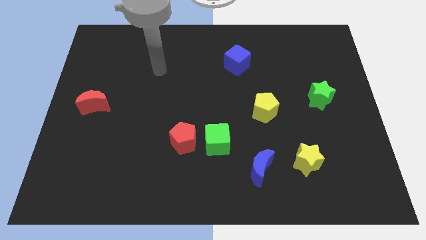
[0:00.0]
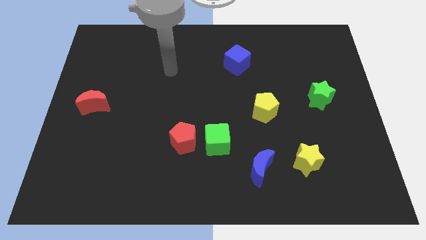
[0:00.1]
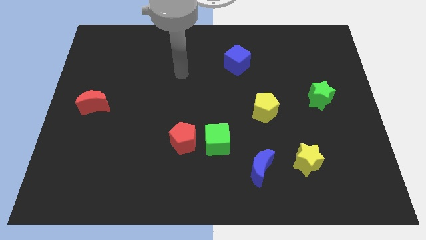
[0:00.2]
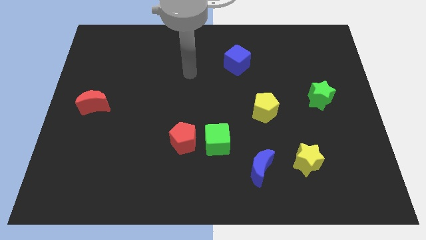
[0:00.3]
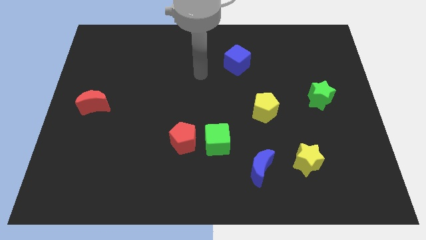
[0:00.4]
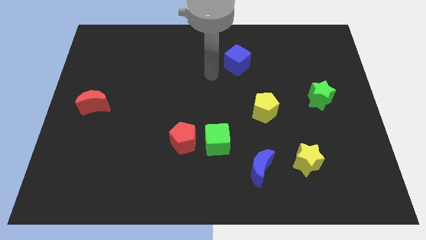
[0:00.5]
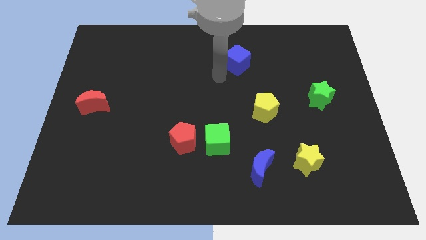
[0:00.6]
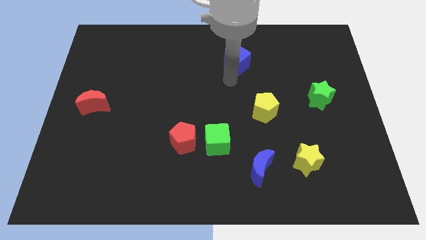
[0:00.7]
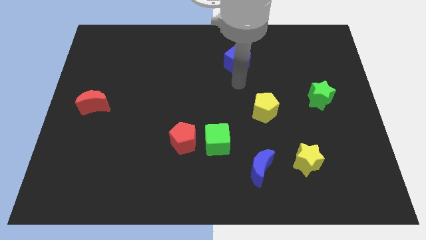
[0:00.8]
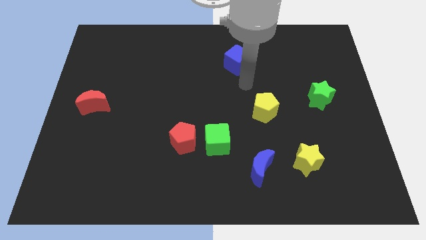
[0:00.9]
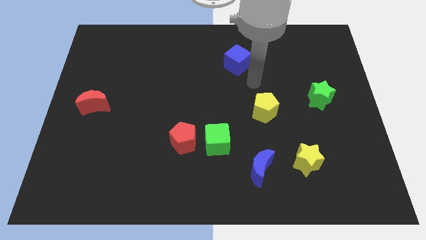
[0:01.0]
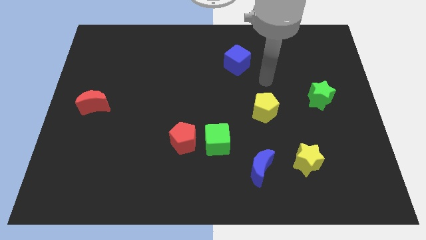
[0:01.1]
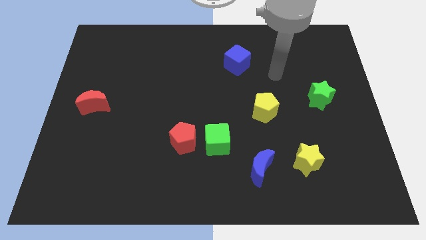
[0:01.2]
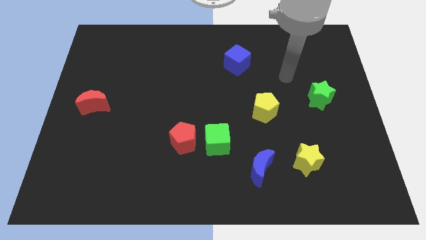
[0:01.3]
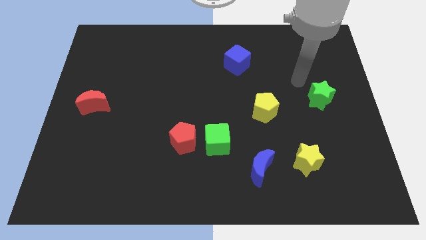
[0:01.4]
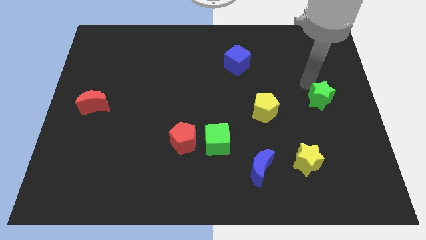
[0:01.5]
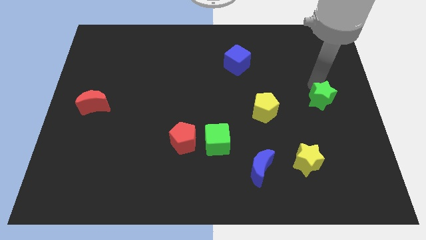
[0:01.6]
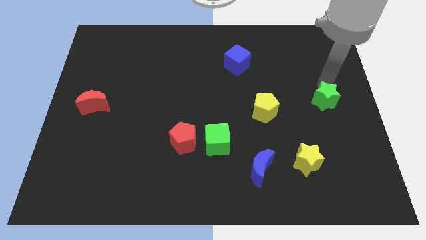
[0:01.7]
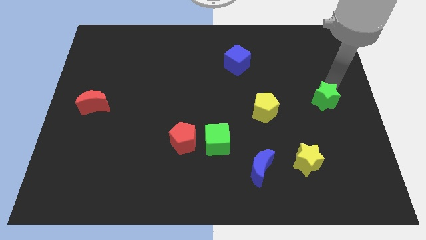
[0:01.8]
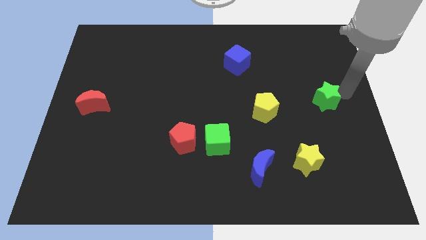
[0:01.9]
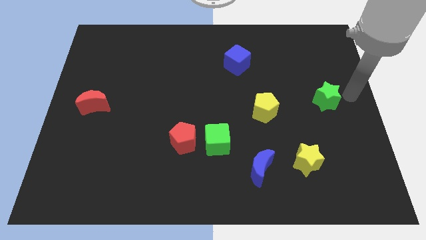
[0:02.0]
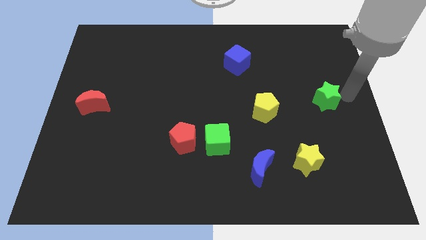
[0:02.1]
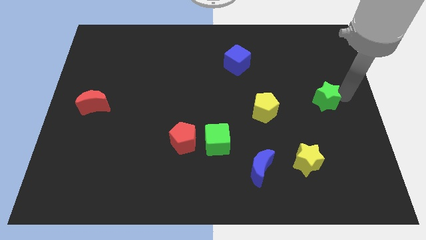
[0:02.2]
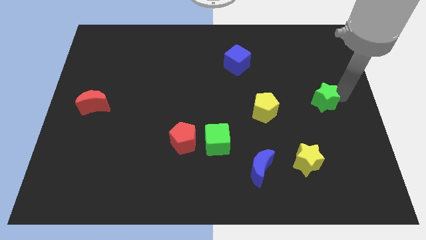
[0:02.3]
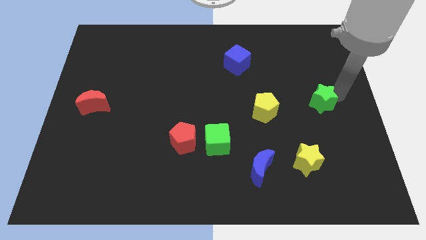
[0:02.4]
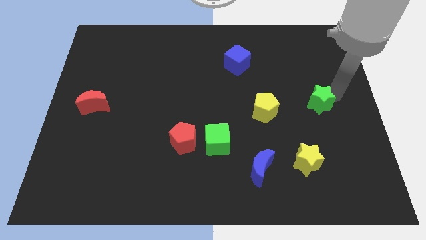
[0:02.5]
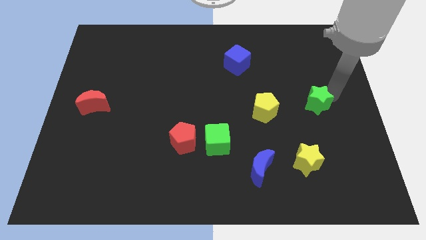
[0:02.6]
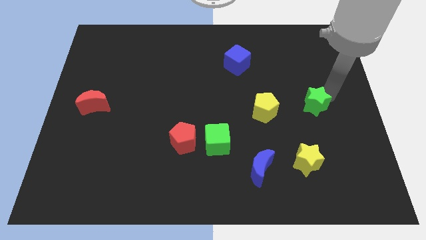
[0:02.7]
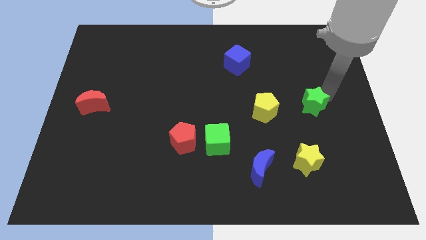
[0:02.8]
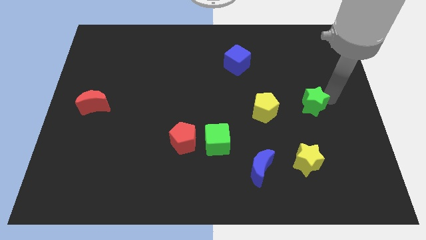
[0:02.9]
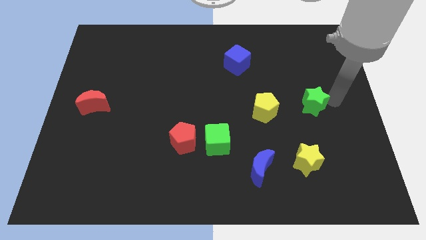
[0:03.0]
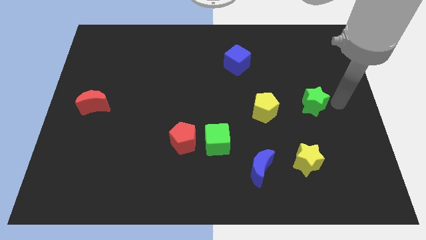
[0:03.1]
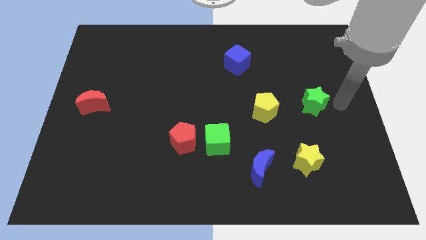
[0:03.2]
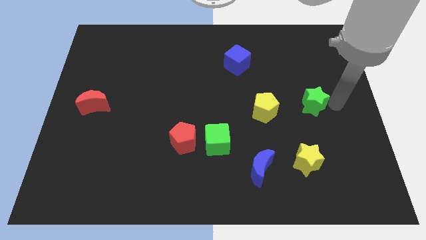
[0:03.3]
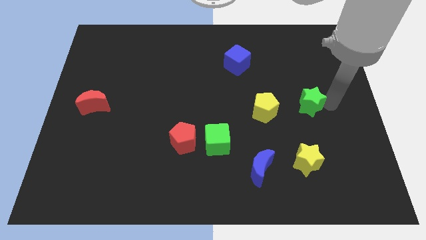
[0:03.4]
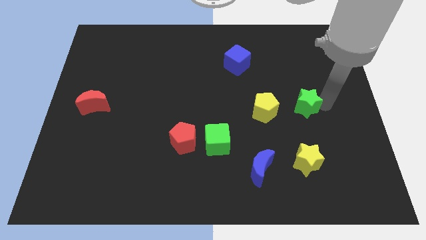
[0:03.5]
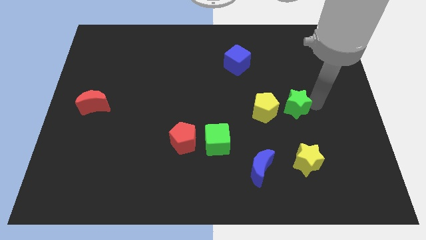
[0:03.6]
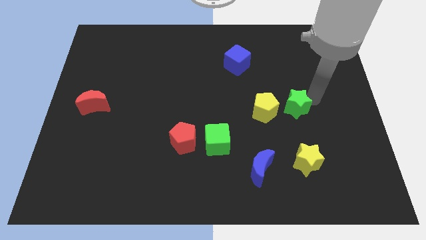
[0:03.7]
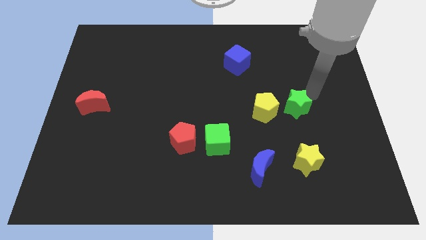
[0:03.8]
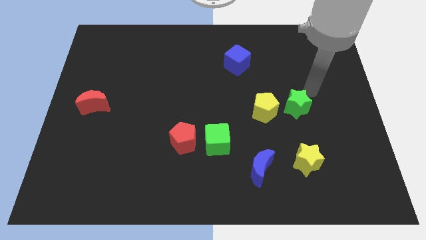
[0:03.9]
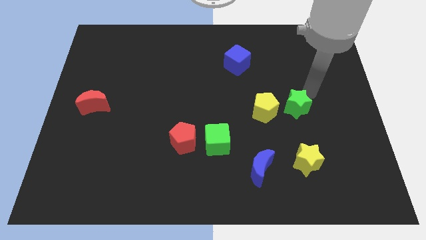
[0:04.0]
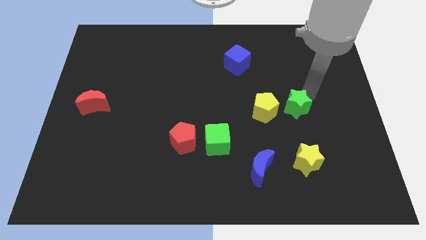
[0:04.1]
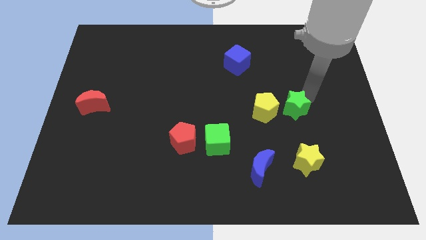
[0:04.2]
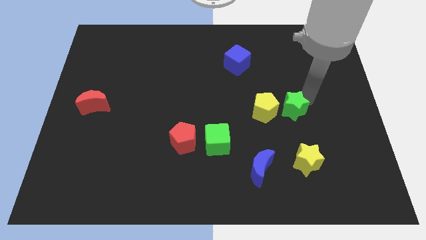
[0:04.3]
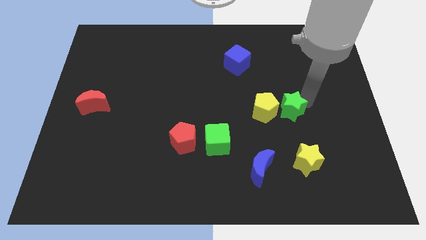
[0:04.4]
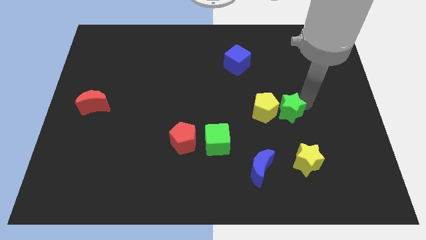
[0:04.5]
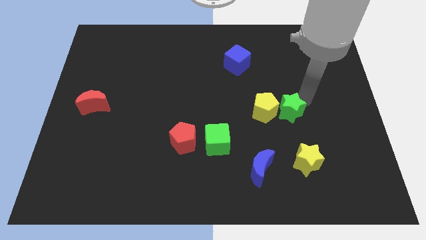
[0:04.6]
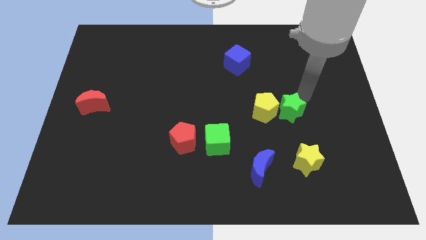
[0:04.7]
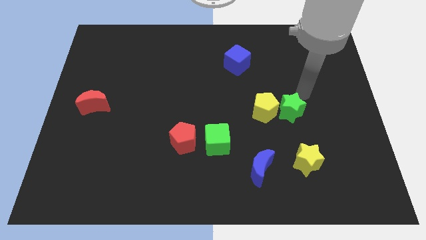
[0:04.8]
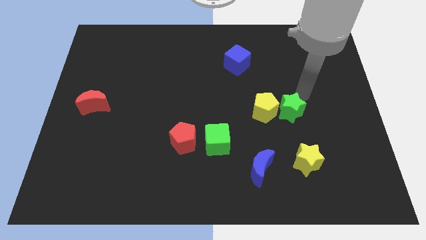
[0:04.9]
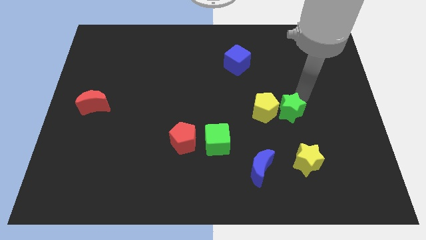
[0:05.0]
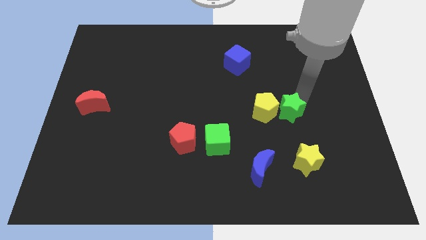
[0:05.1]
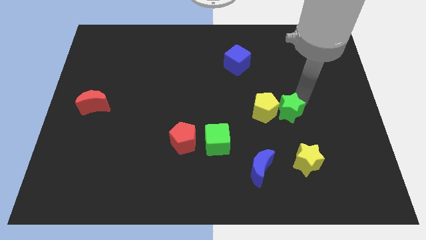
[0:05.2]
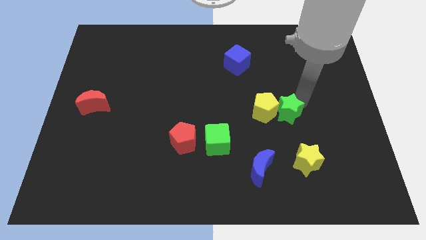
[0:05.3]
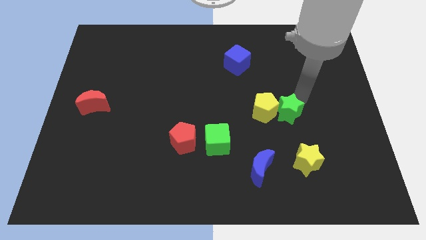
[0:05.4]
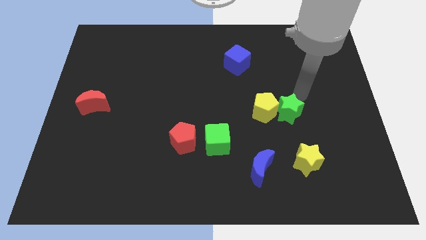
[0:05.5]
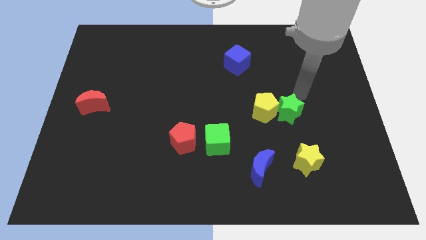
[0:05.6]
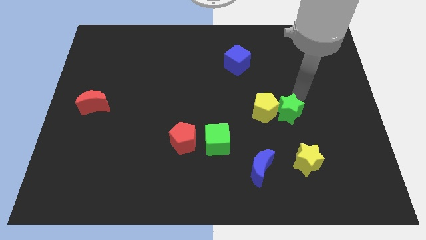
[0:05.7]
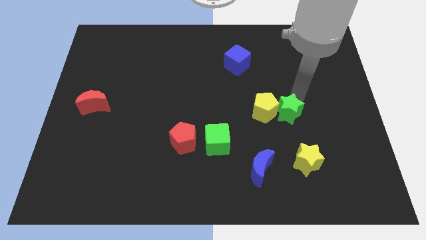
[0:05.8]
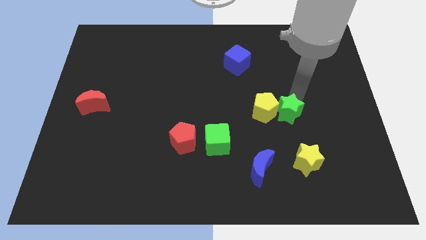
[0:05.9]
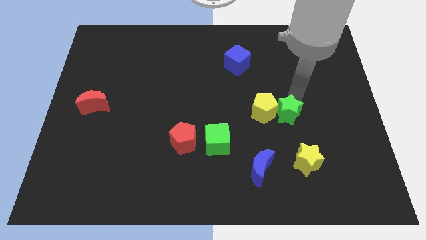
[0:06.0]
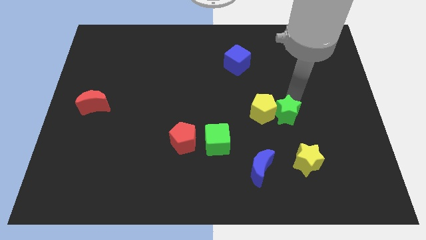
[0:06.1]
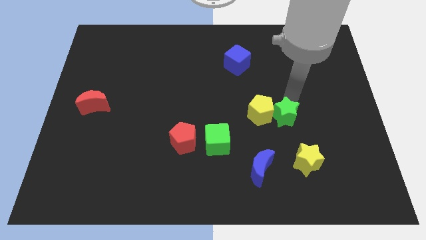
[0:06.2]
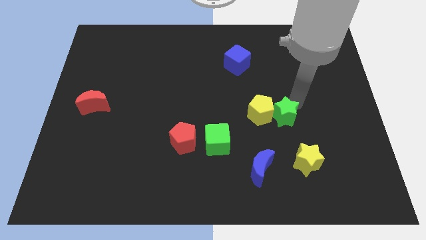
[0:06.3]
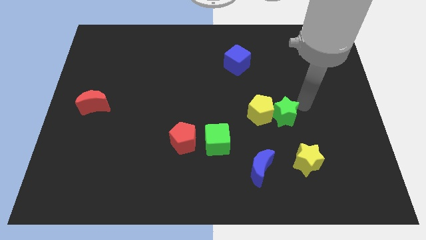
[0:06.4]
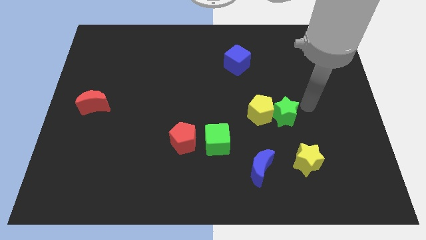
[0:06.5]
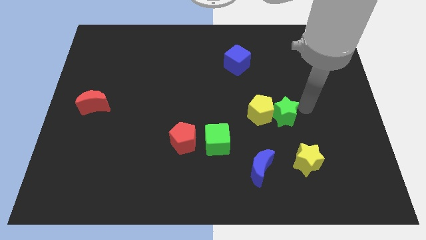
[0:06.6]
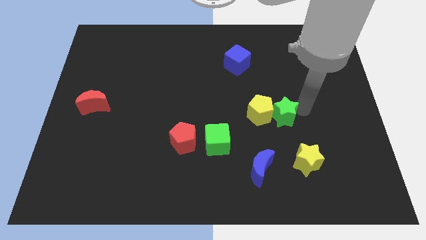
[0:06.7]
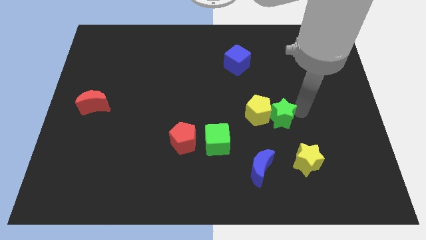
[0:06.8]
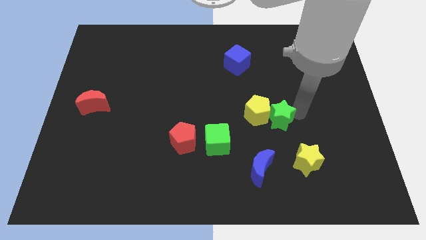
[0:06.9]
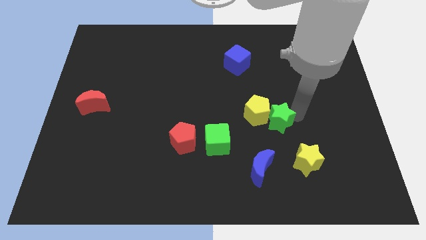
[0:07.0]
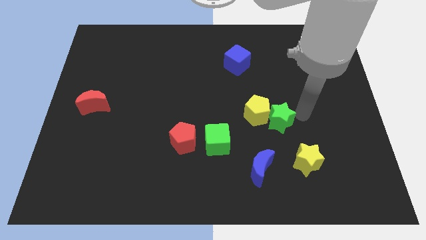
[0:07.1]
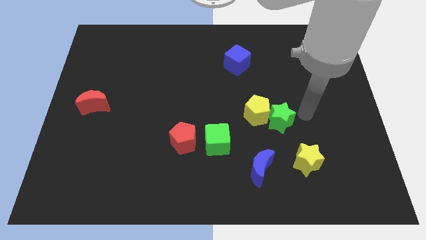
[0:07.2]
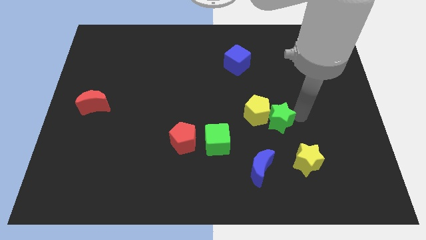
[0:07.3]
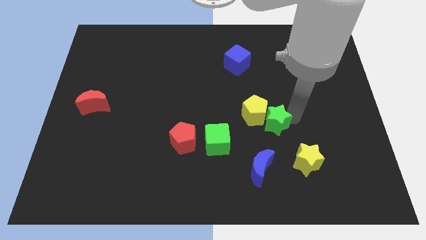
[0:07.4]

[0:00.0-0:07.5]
put the green star to the top side of the blue moon
